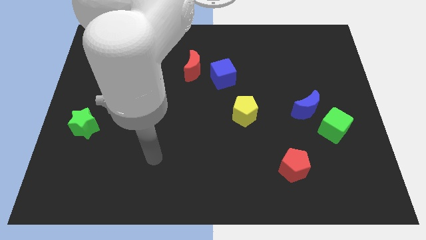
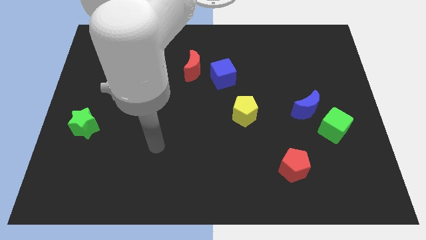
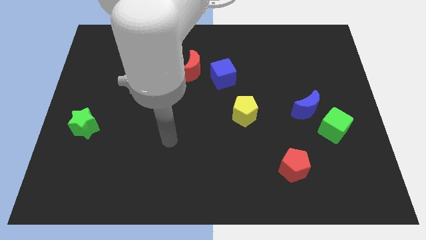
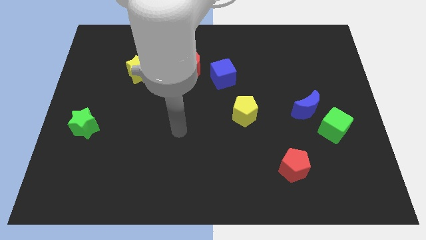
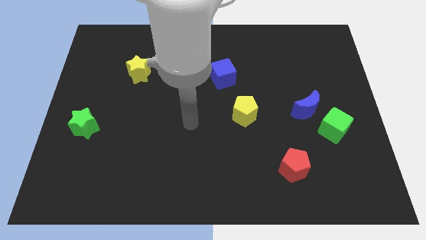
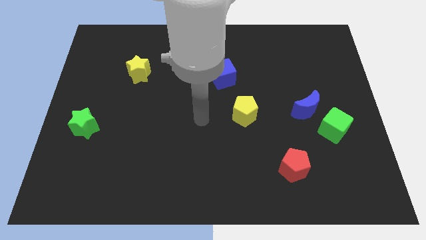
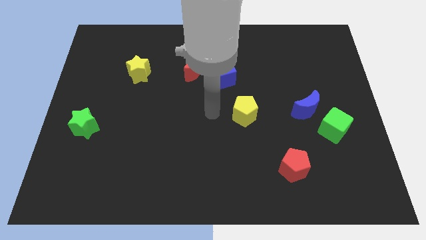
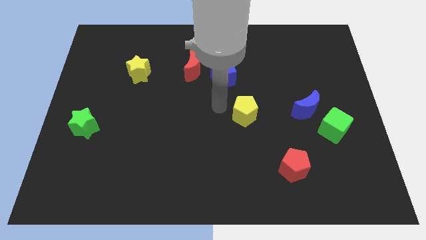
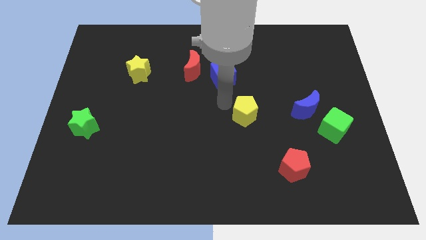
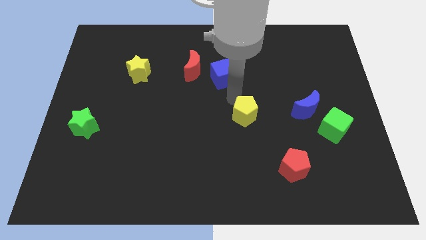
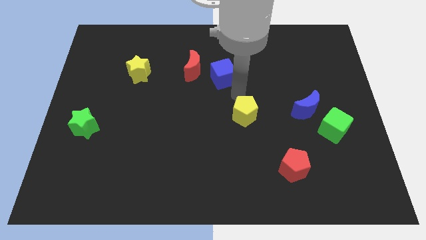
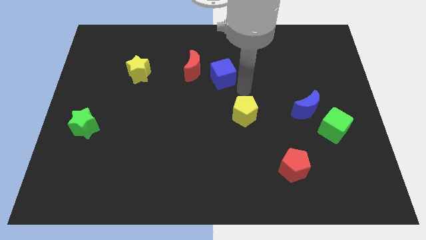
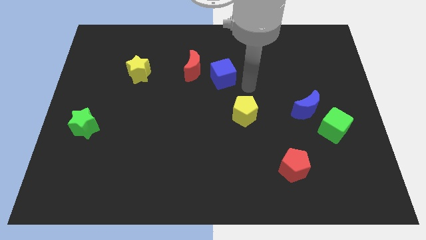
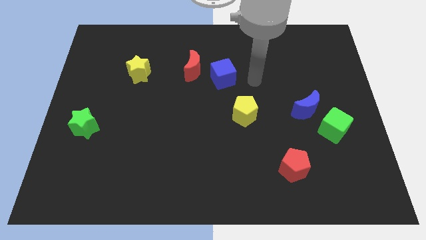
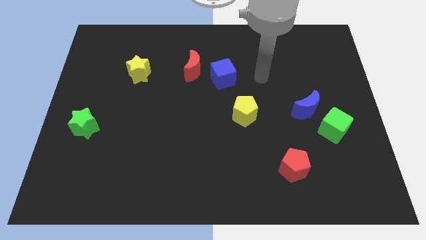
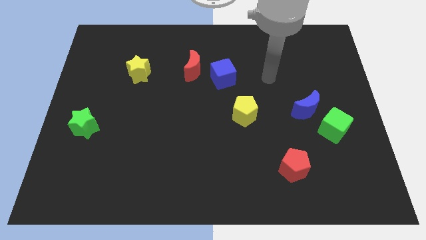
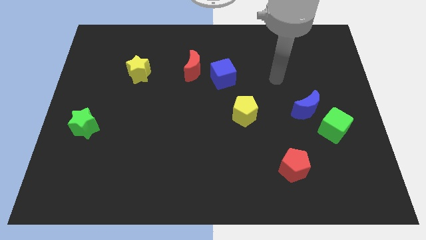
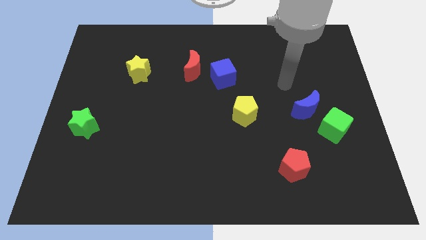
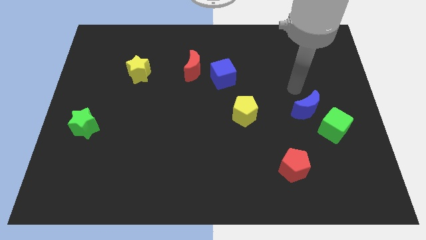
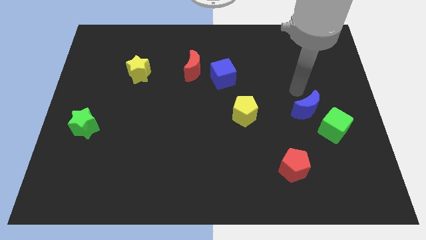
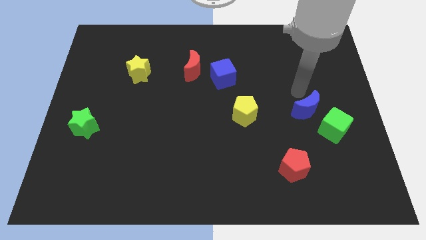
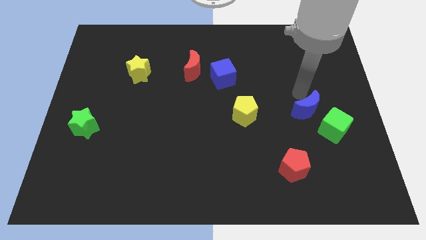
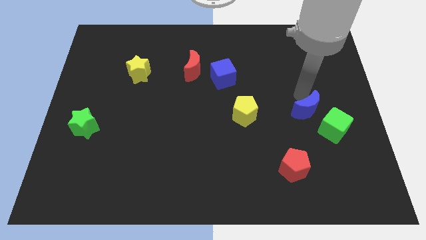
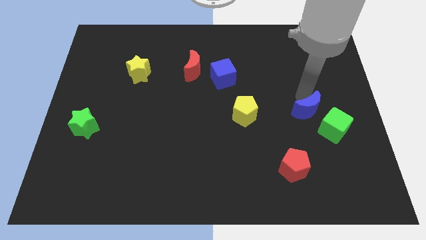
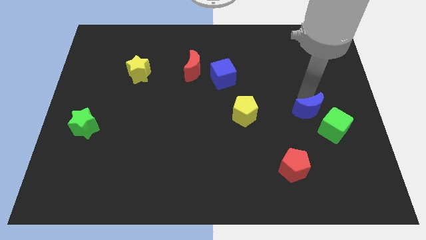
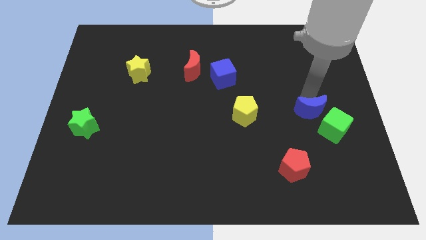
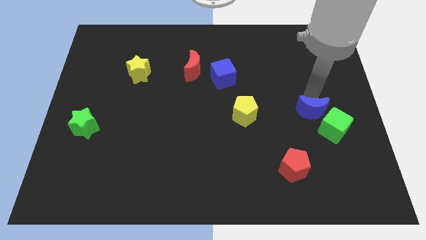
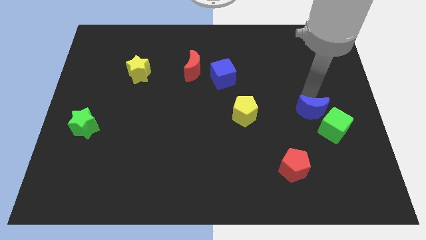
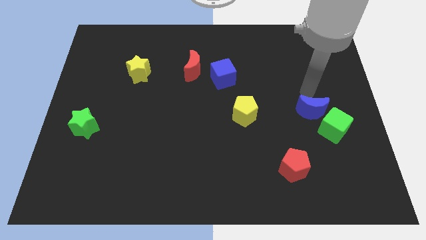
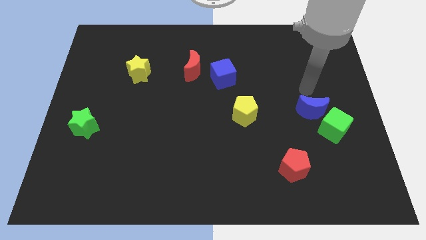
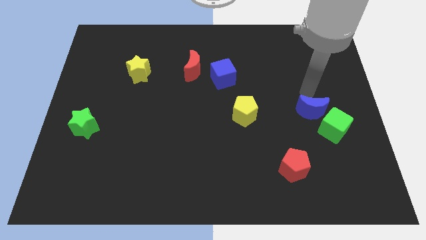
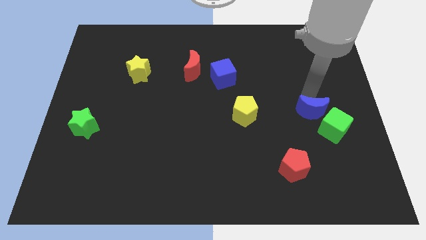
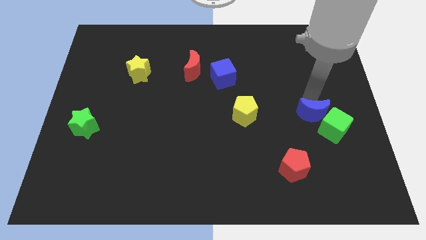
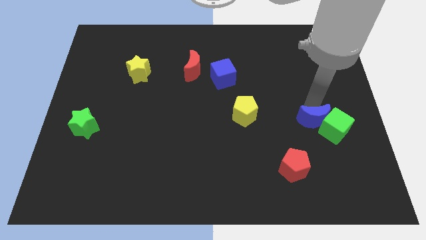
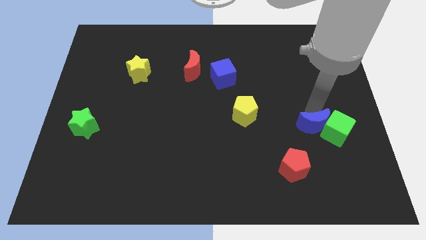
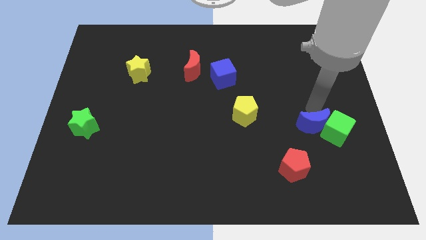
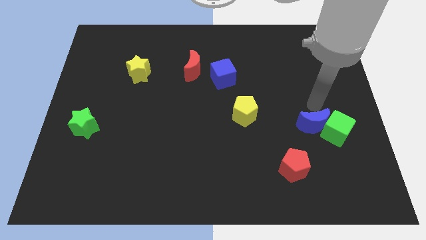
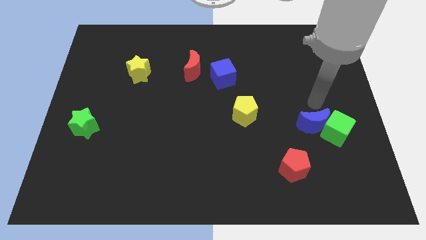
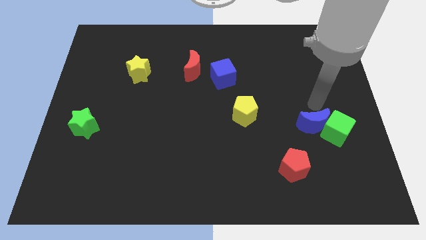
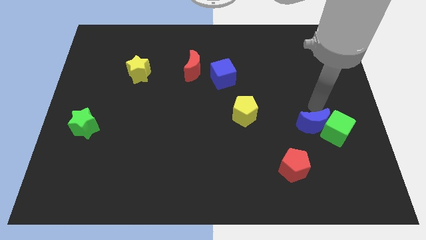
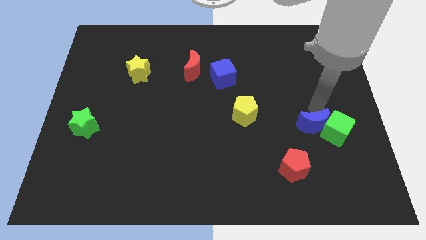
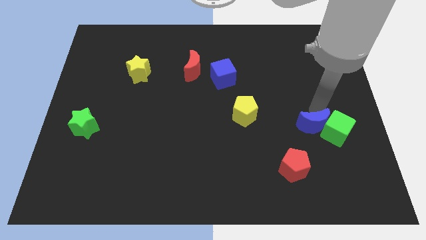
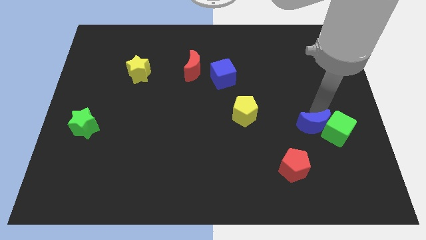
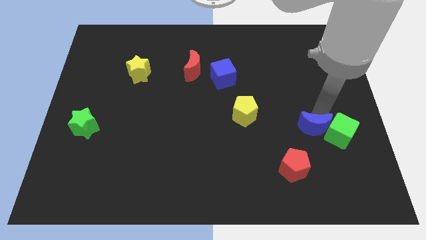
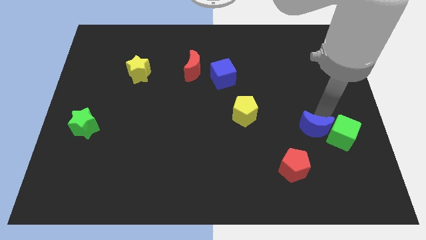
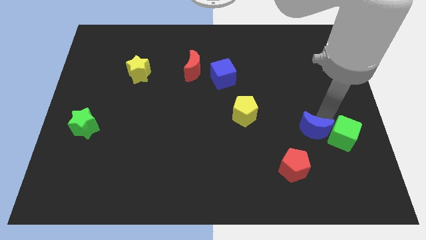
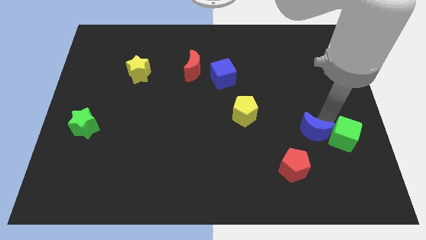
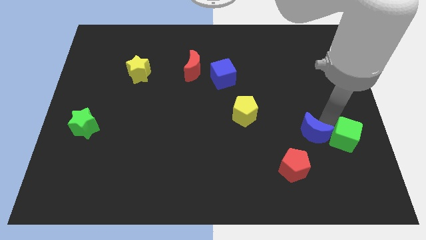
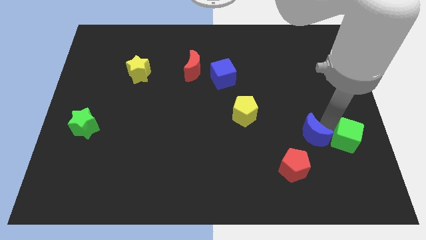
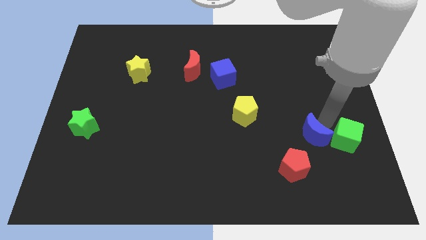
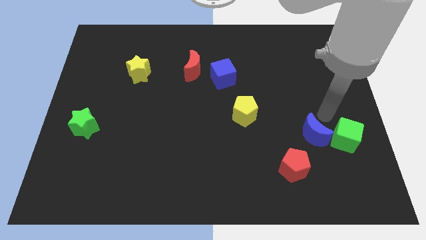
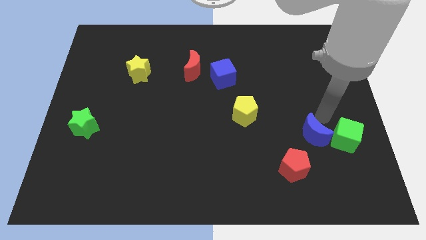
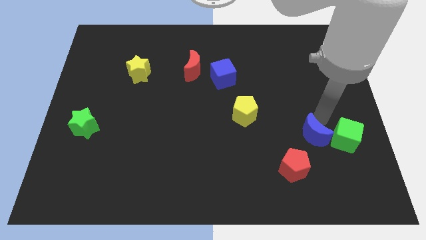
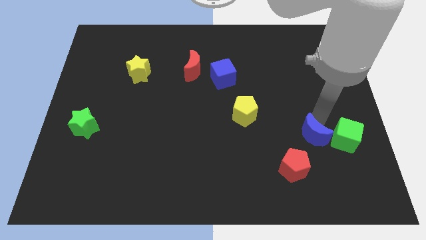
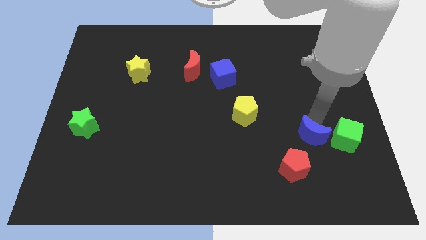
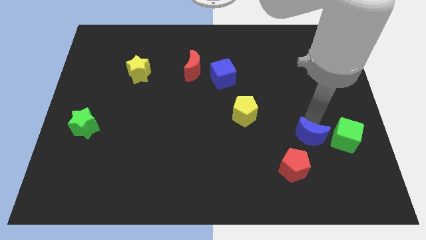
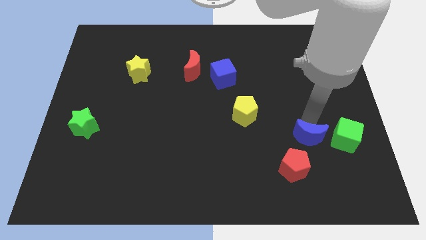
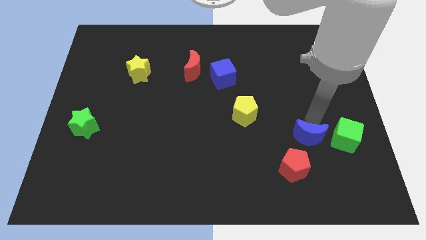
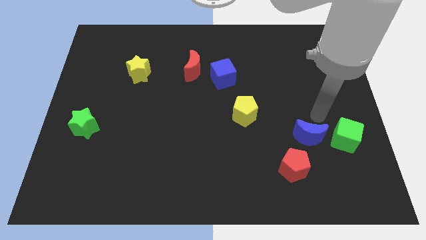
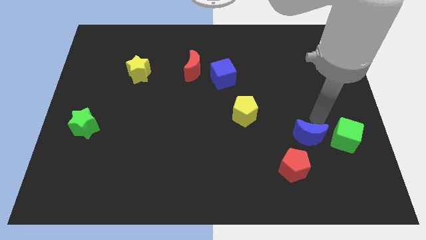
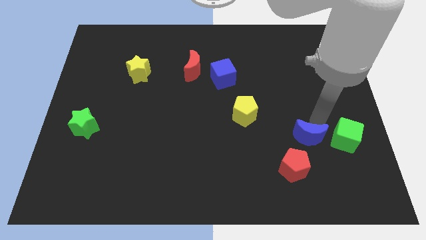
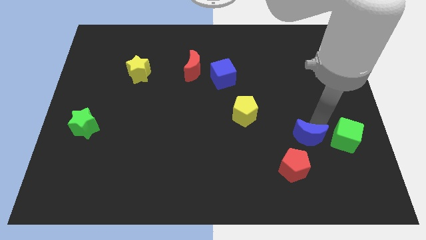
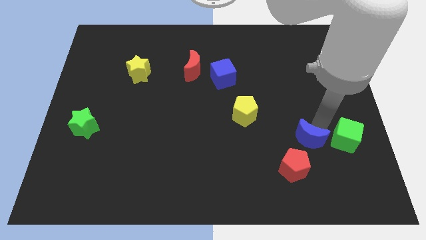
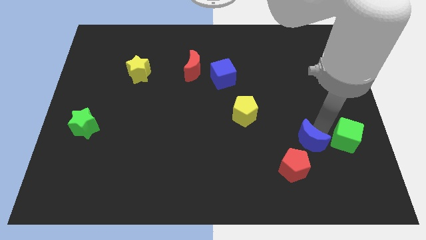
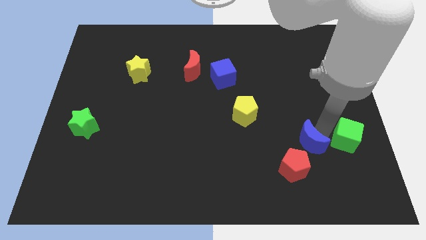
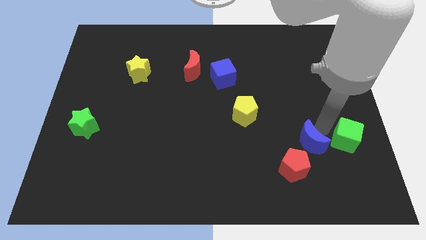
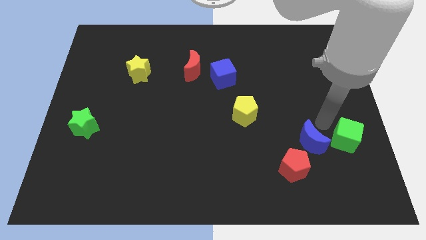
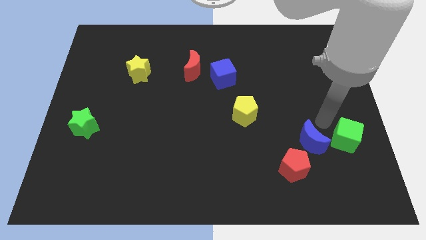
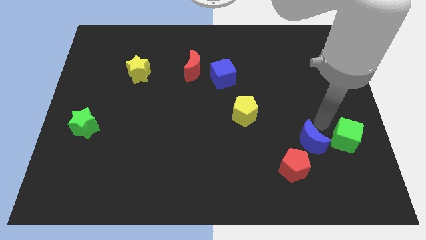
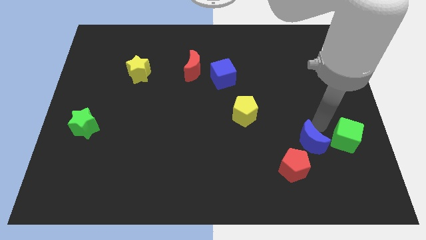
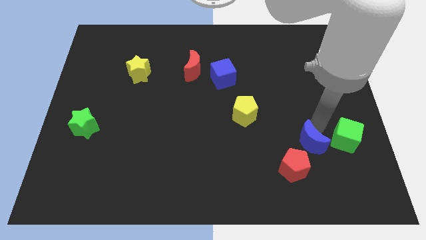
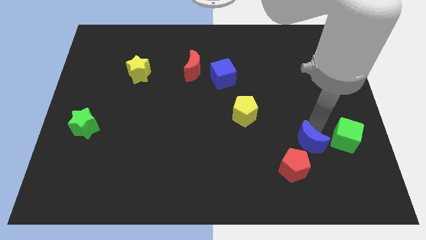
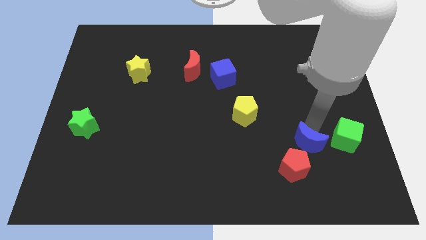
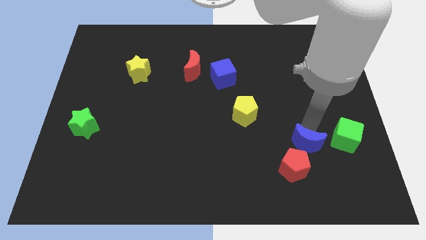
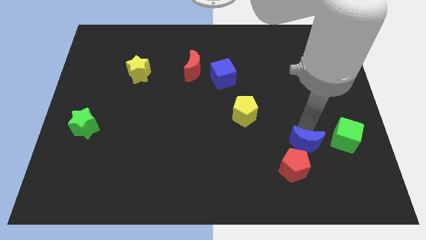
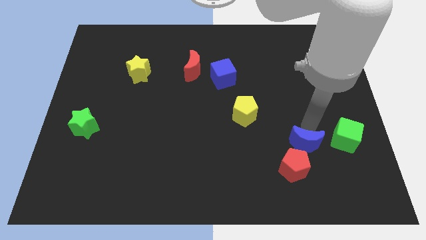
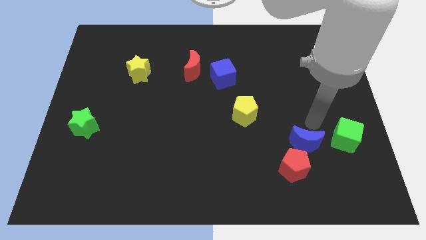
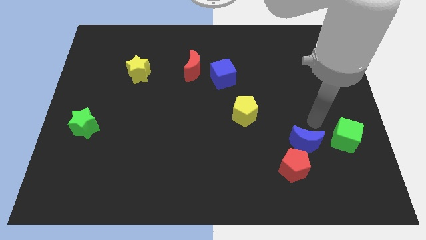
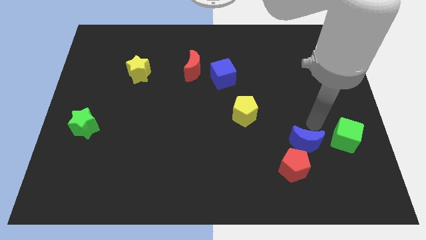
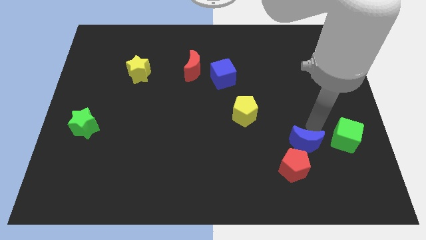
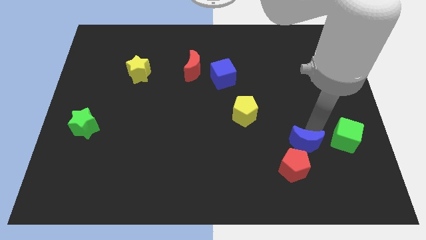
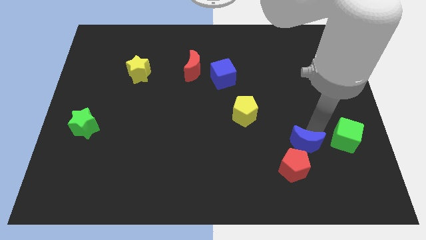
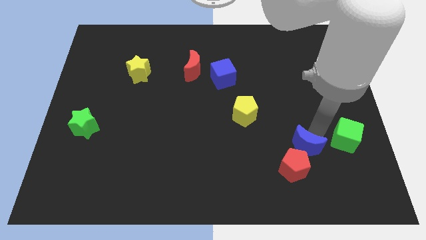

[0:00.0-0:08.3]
move the blue moon close to the red pentagon
